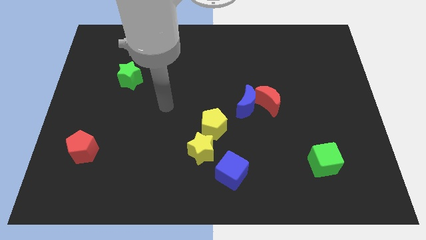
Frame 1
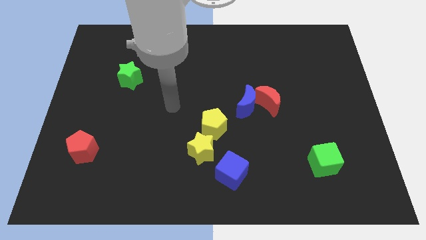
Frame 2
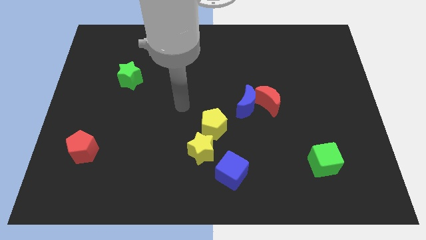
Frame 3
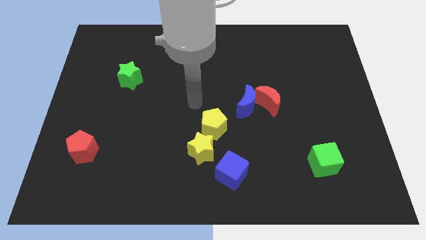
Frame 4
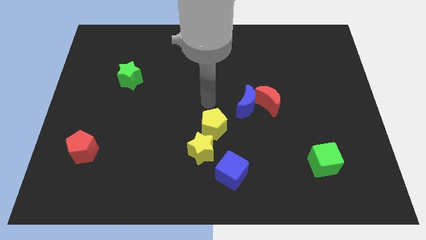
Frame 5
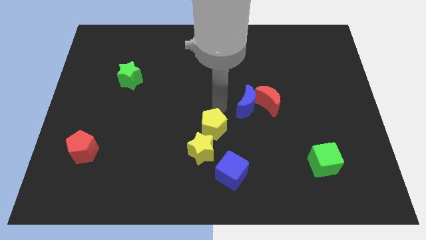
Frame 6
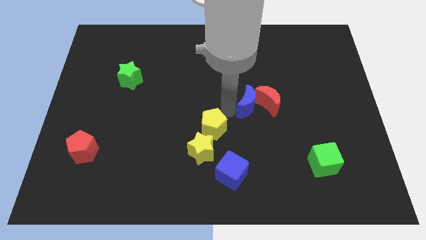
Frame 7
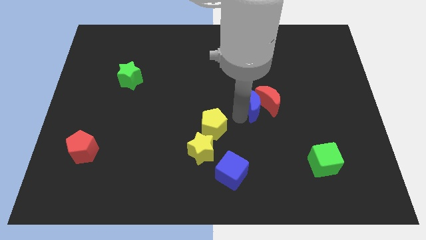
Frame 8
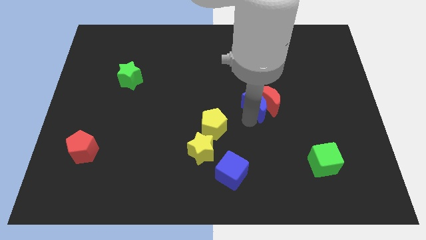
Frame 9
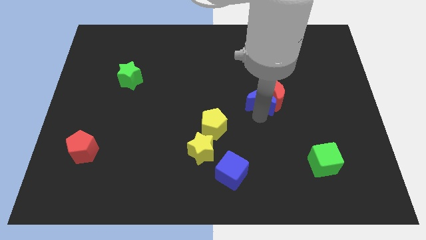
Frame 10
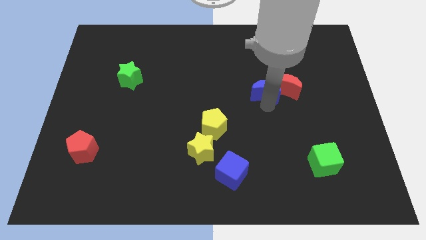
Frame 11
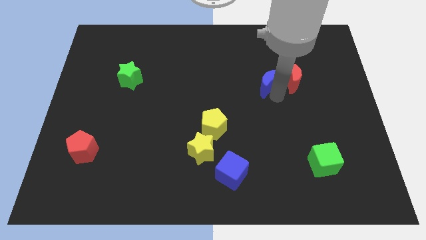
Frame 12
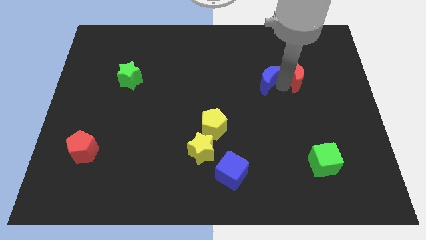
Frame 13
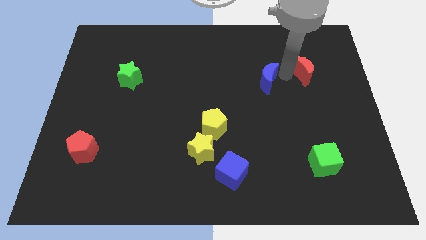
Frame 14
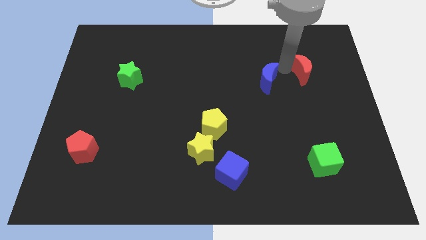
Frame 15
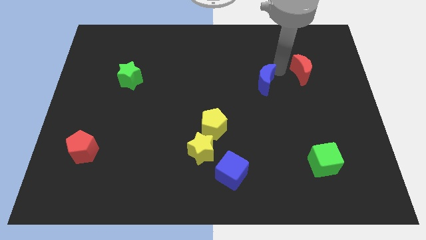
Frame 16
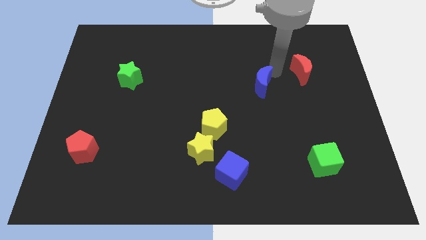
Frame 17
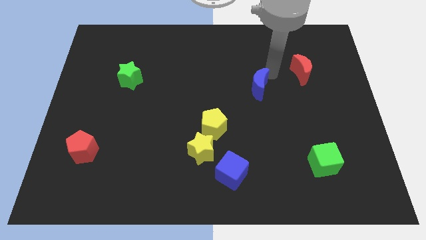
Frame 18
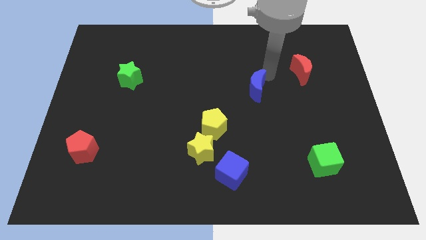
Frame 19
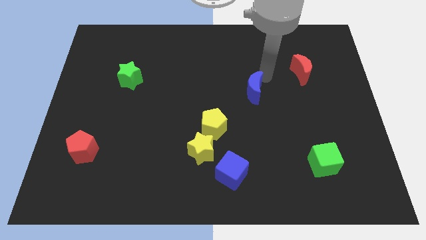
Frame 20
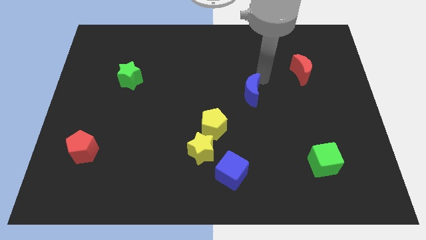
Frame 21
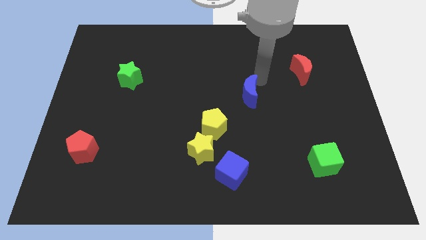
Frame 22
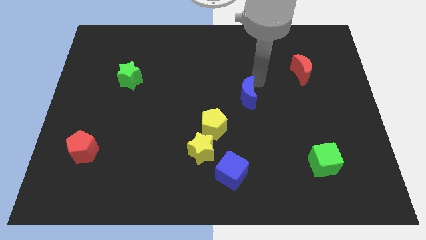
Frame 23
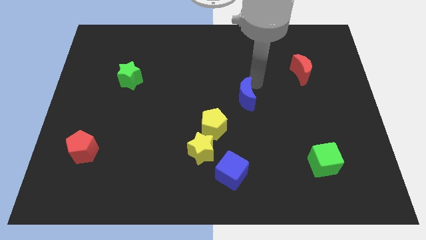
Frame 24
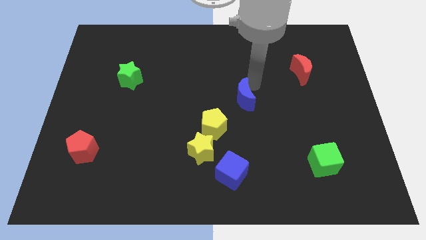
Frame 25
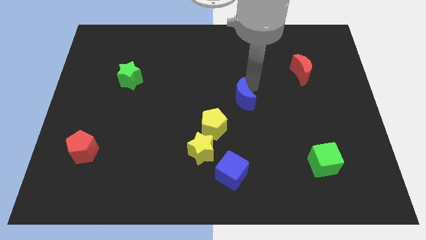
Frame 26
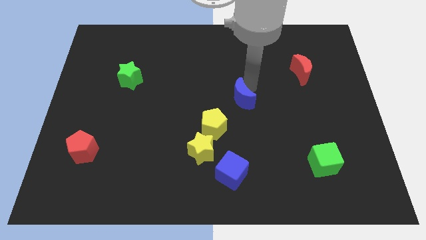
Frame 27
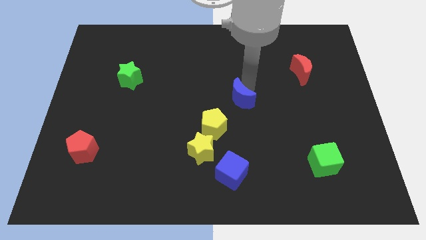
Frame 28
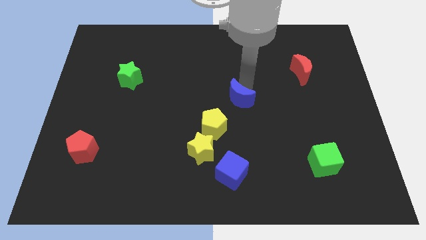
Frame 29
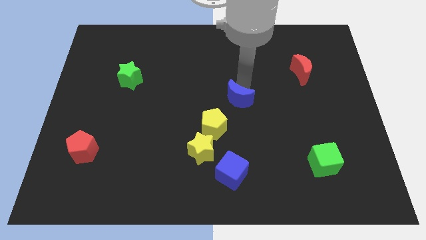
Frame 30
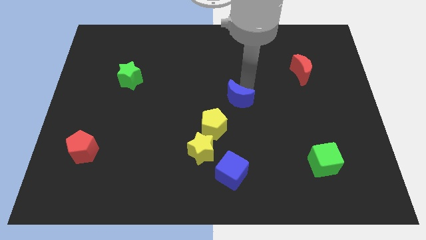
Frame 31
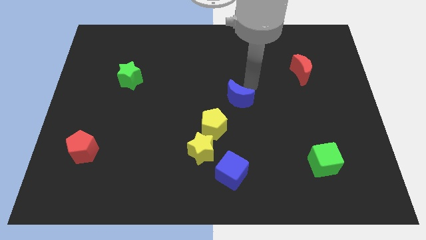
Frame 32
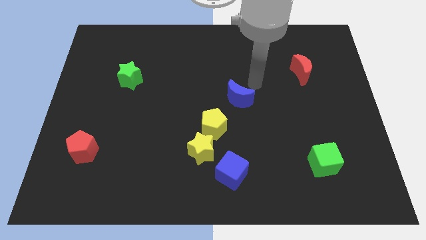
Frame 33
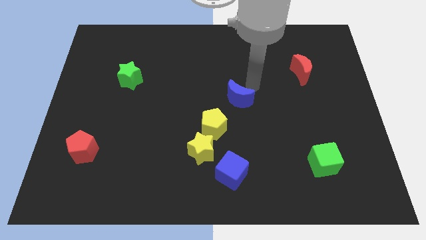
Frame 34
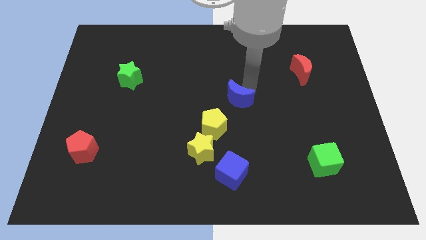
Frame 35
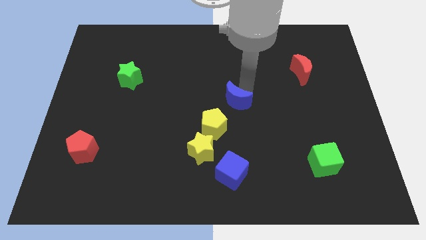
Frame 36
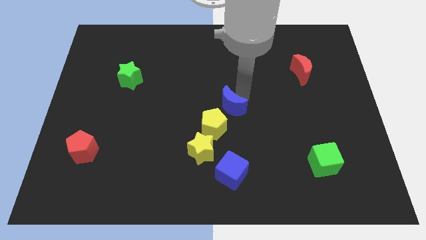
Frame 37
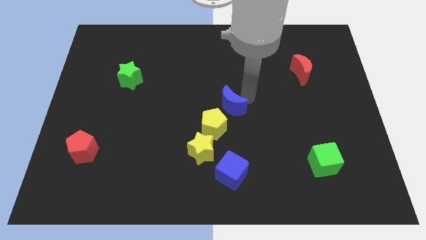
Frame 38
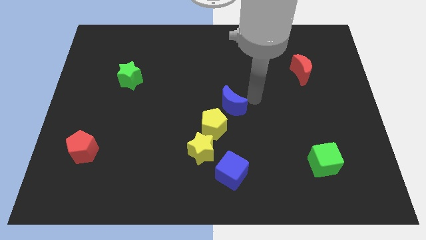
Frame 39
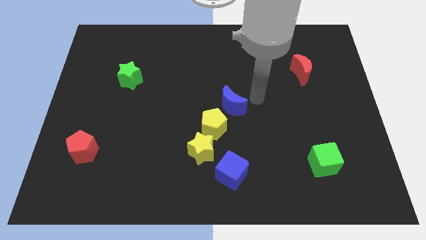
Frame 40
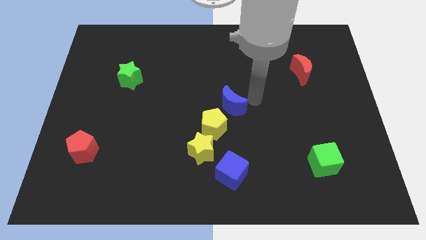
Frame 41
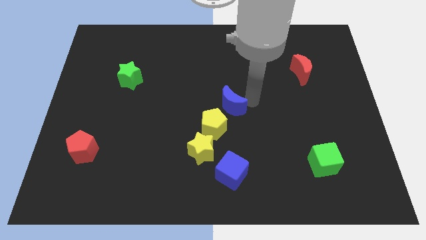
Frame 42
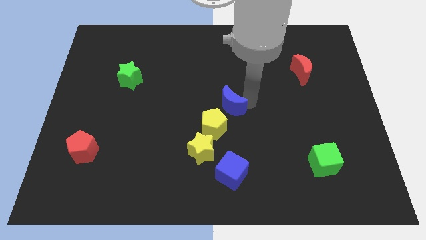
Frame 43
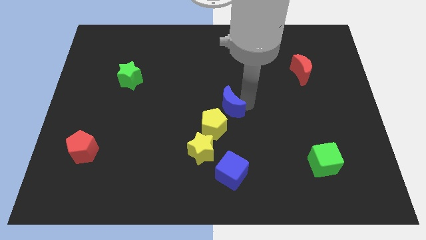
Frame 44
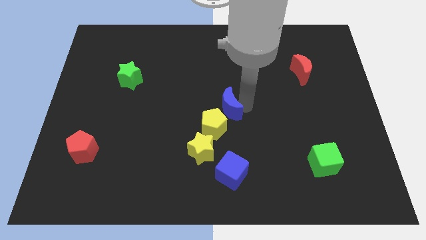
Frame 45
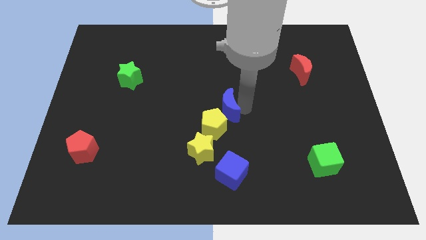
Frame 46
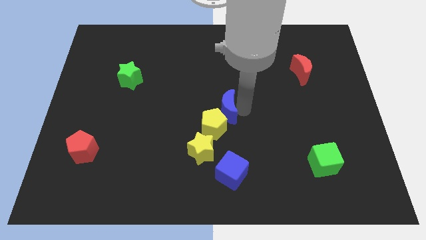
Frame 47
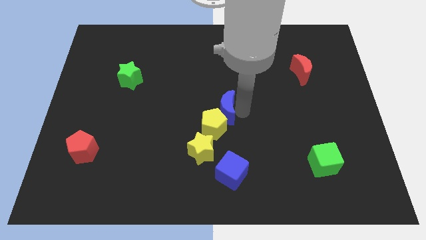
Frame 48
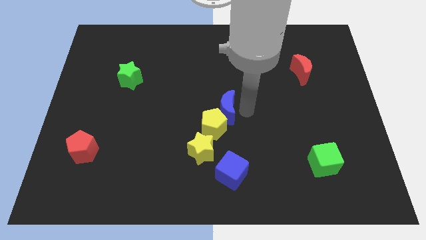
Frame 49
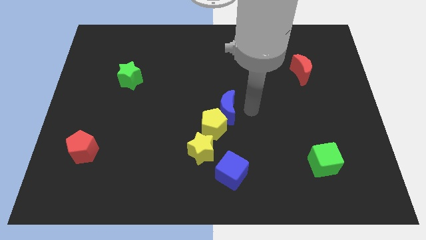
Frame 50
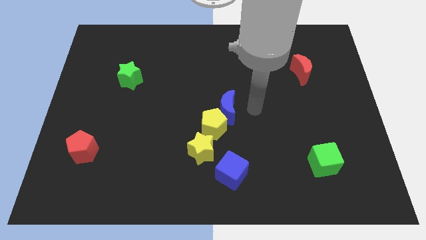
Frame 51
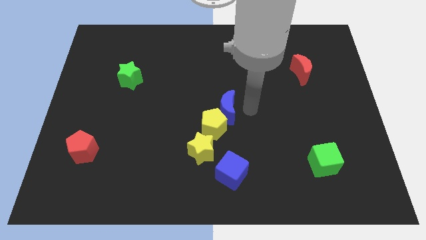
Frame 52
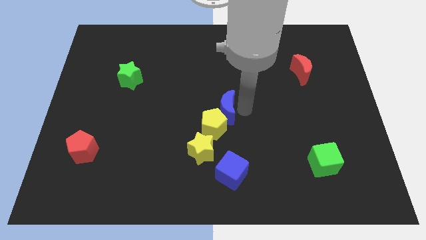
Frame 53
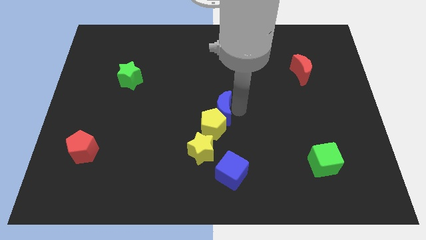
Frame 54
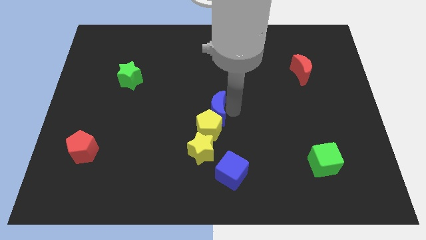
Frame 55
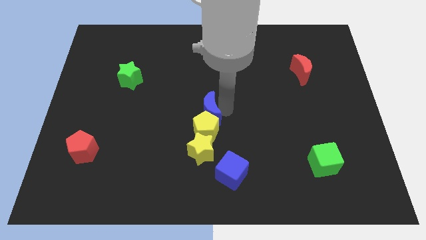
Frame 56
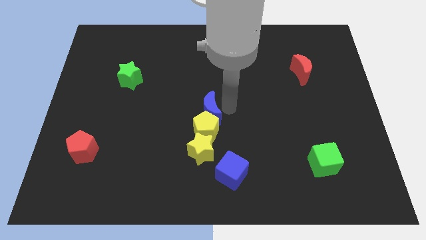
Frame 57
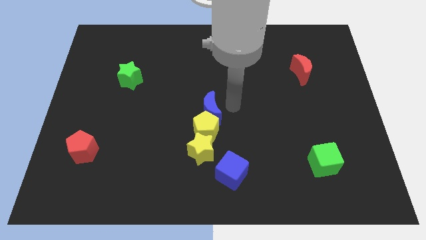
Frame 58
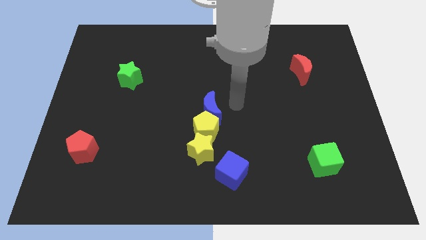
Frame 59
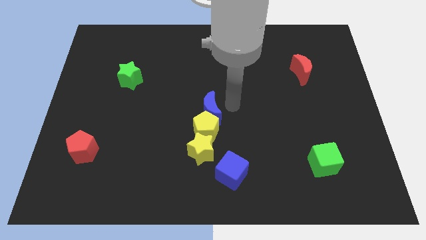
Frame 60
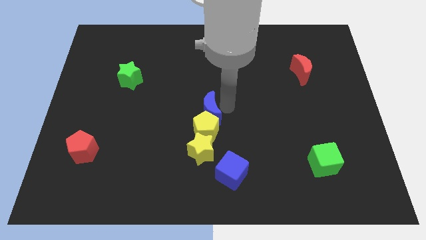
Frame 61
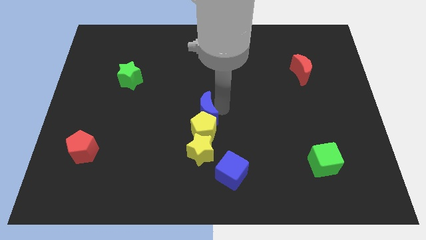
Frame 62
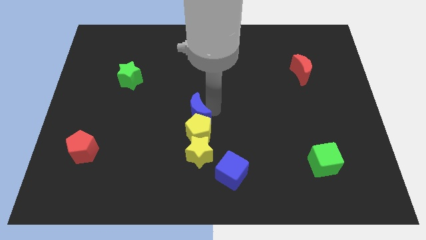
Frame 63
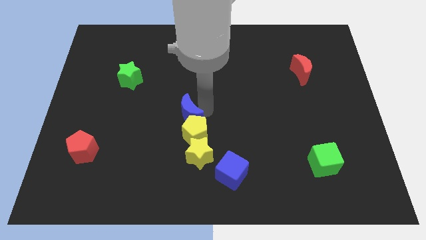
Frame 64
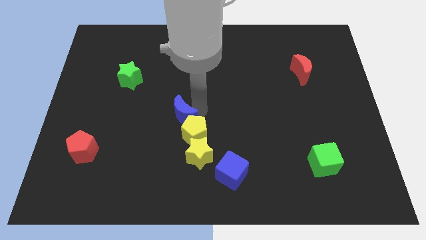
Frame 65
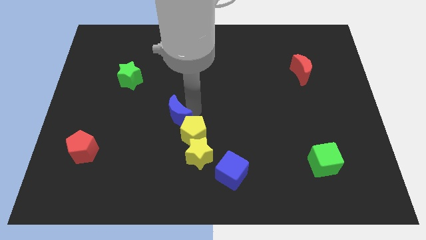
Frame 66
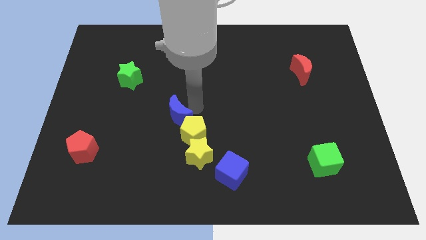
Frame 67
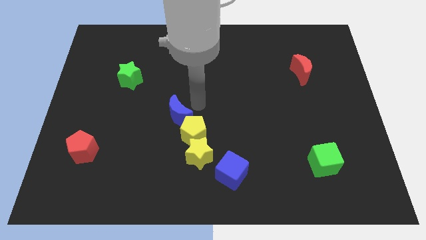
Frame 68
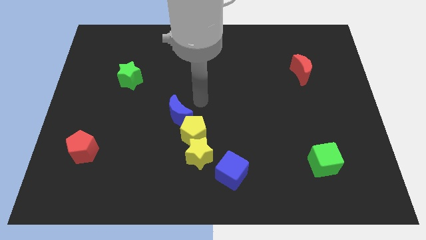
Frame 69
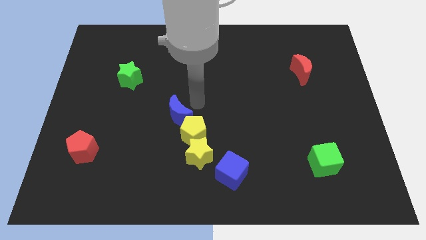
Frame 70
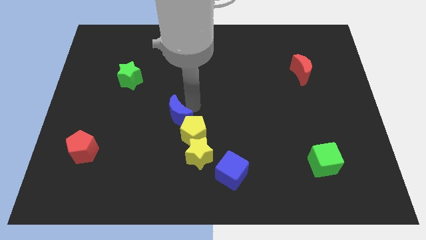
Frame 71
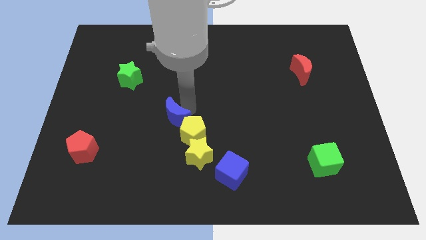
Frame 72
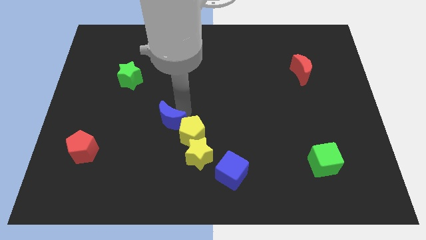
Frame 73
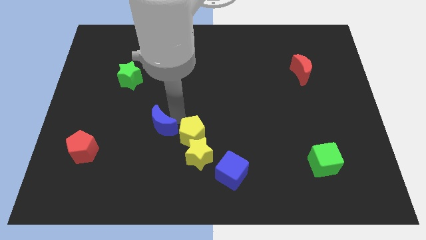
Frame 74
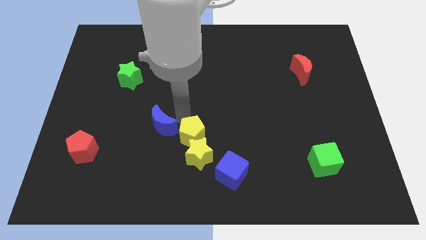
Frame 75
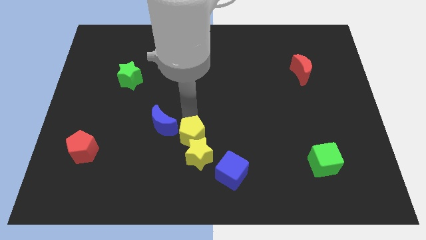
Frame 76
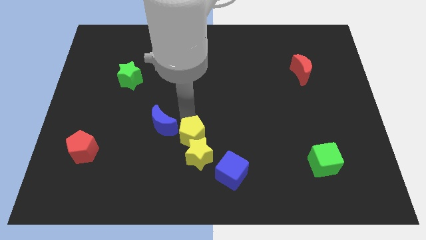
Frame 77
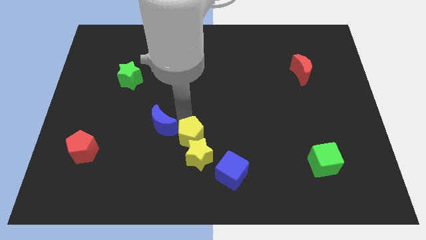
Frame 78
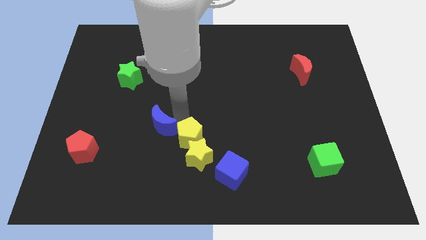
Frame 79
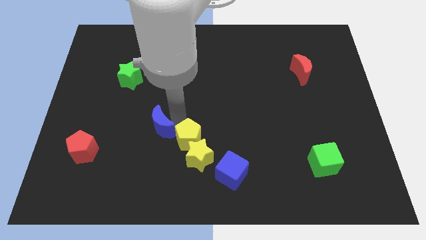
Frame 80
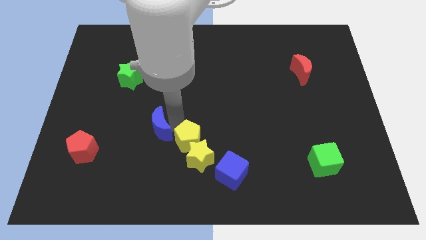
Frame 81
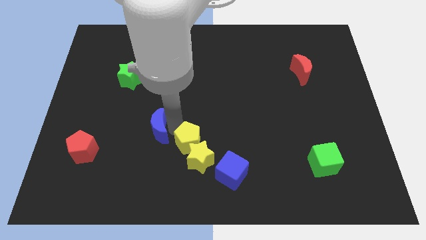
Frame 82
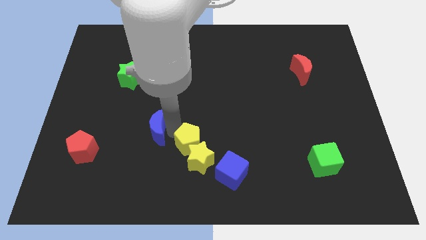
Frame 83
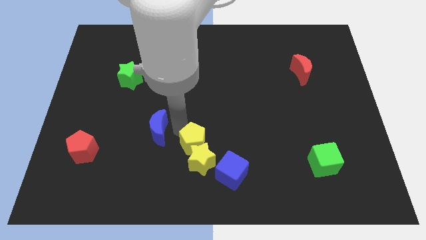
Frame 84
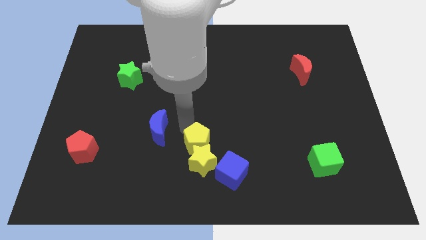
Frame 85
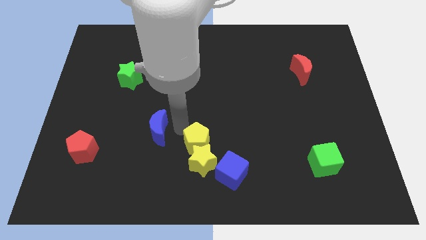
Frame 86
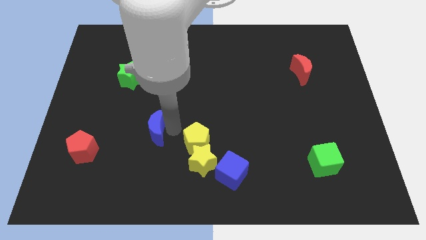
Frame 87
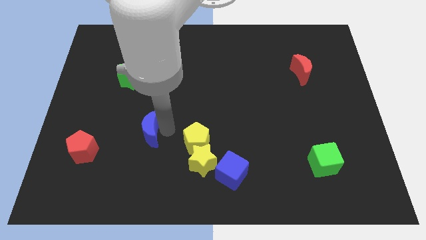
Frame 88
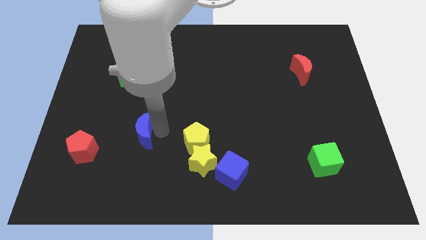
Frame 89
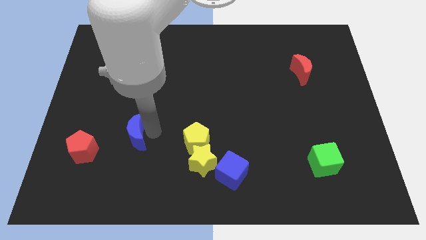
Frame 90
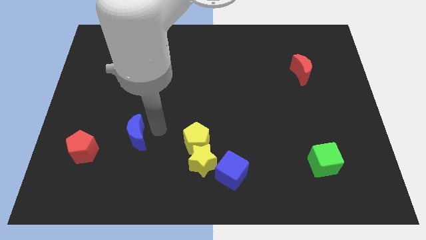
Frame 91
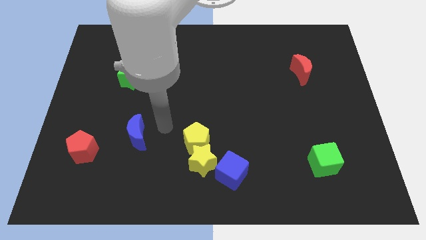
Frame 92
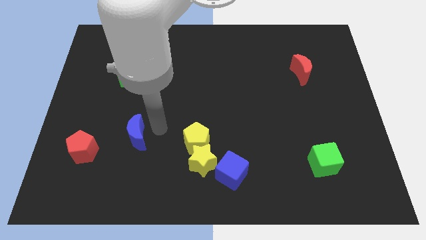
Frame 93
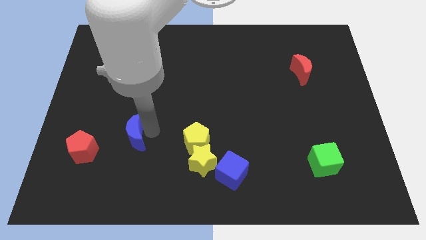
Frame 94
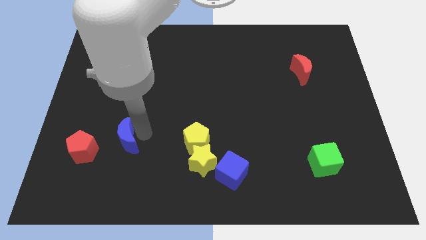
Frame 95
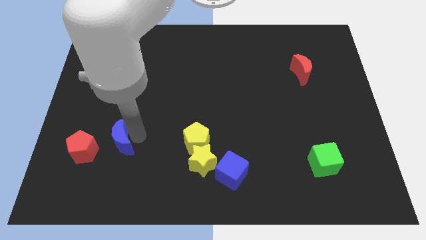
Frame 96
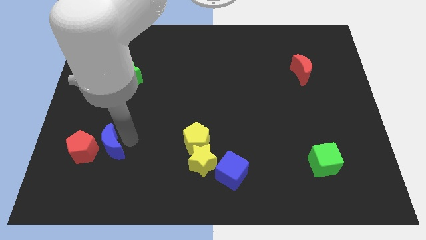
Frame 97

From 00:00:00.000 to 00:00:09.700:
move the blue moon towards the red pentagon
